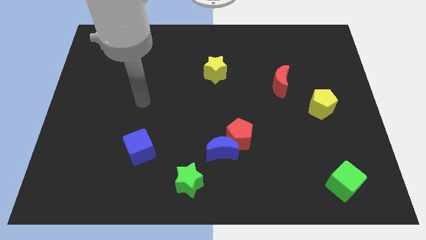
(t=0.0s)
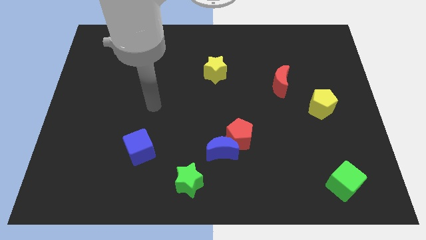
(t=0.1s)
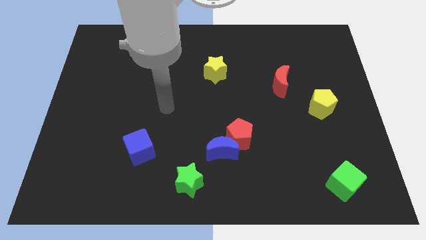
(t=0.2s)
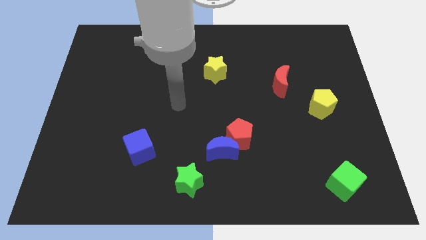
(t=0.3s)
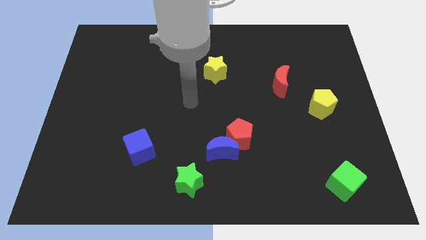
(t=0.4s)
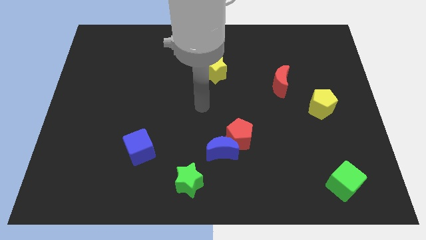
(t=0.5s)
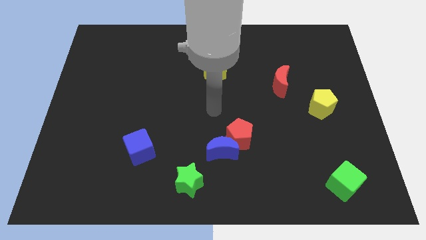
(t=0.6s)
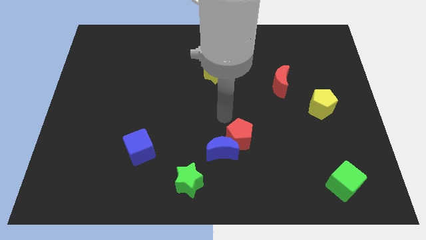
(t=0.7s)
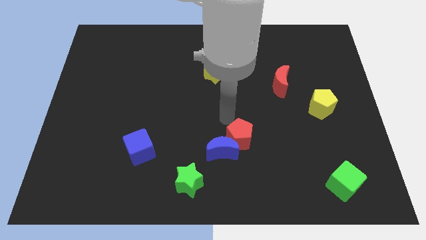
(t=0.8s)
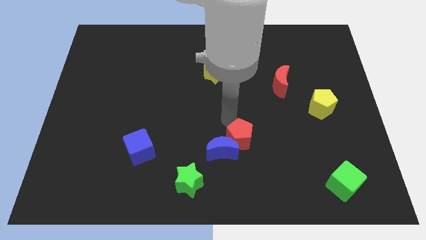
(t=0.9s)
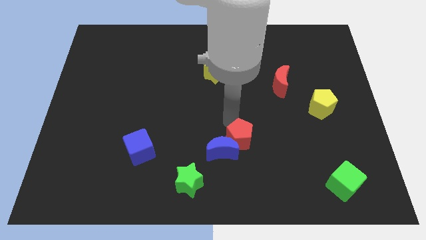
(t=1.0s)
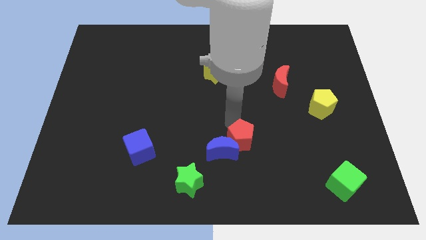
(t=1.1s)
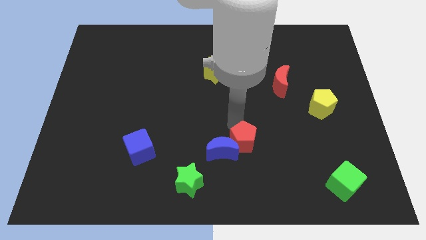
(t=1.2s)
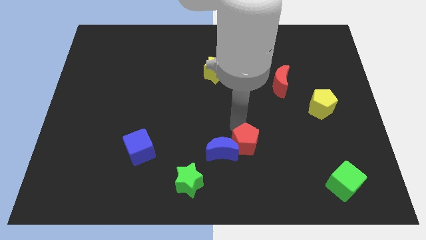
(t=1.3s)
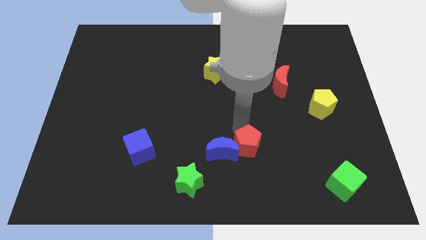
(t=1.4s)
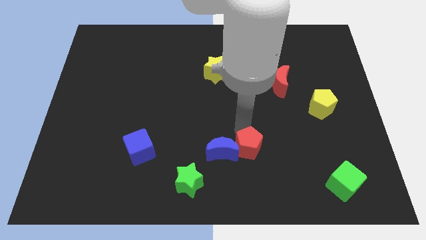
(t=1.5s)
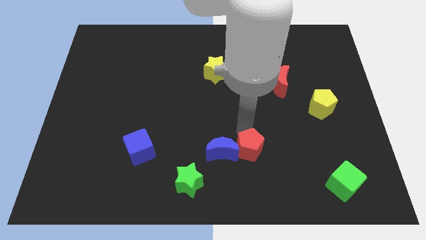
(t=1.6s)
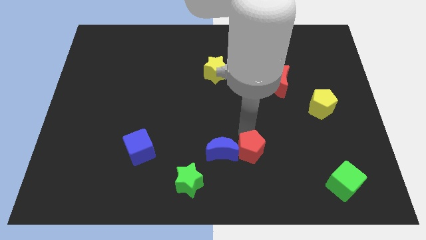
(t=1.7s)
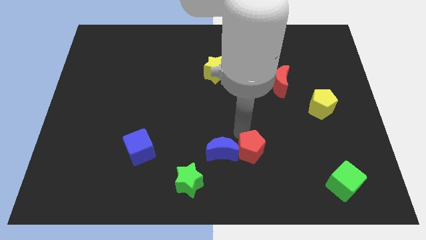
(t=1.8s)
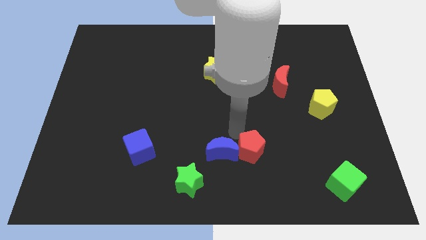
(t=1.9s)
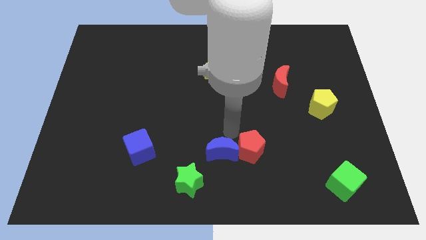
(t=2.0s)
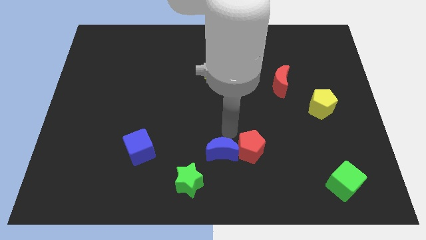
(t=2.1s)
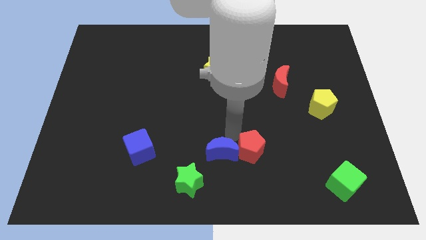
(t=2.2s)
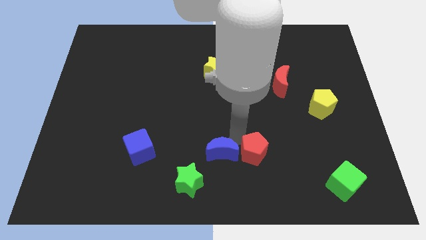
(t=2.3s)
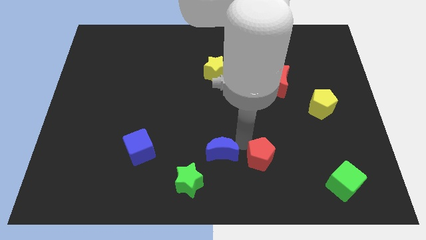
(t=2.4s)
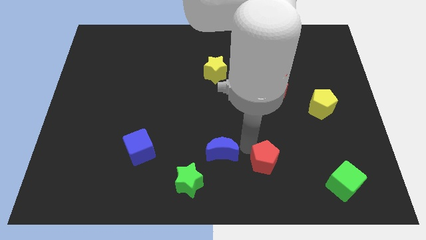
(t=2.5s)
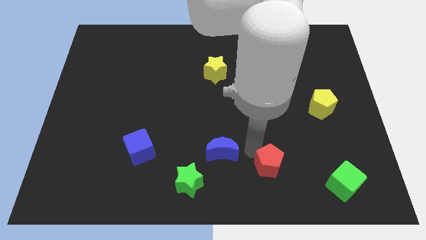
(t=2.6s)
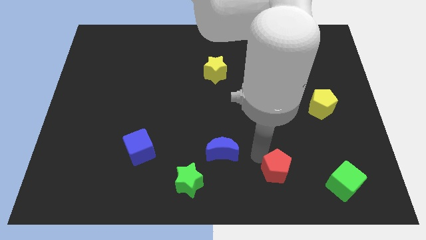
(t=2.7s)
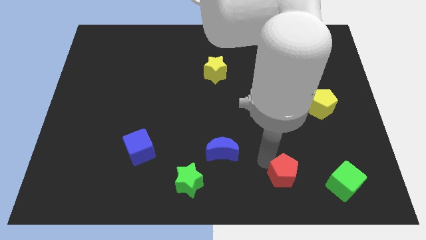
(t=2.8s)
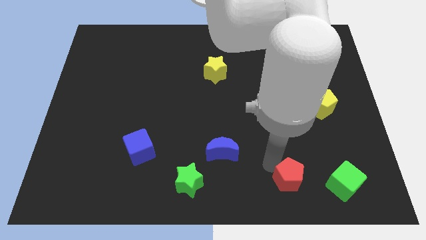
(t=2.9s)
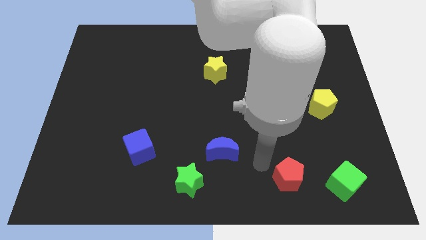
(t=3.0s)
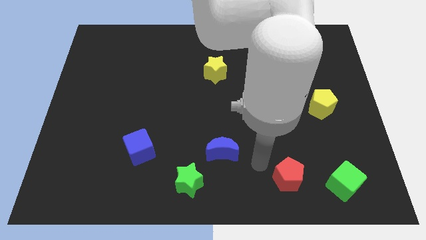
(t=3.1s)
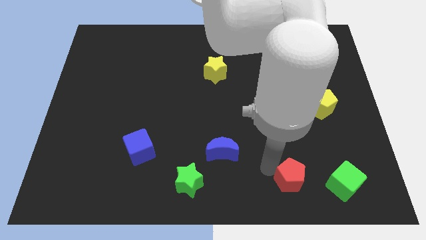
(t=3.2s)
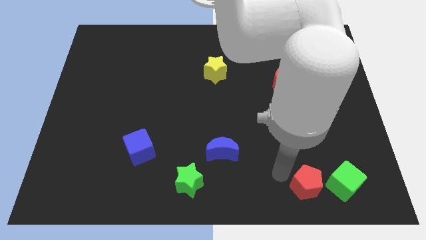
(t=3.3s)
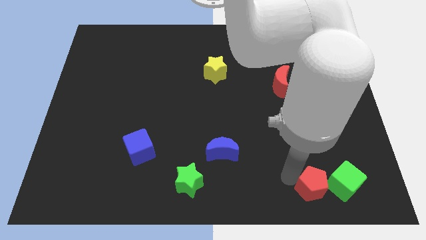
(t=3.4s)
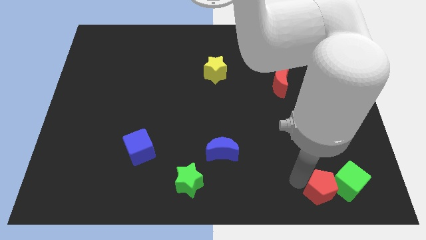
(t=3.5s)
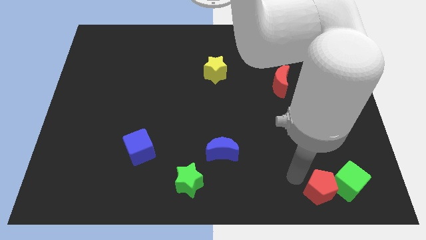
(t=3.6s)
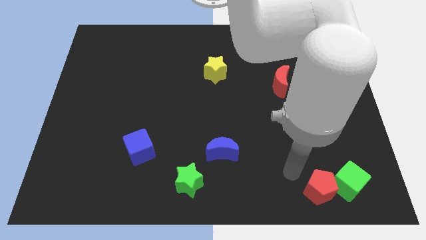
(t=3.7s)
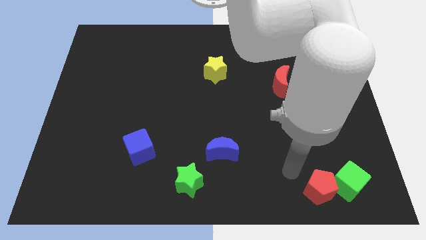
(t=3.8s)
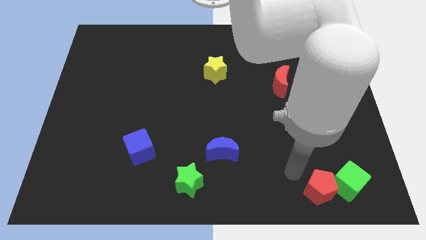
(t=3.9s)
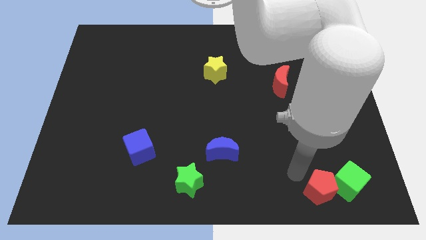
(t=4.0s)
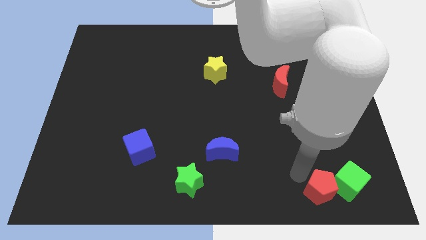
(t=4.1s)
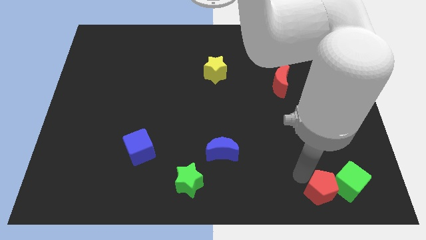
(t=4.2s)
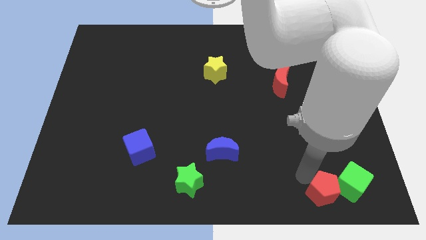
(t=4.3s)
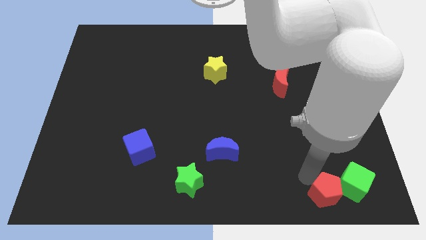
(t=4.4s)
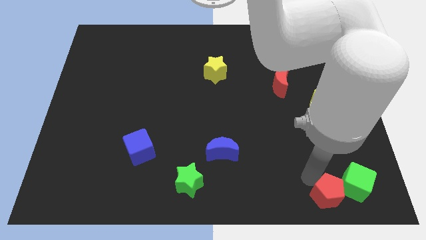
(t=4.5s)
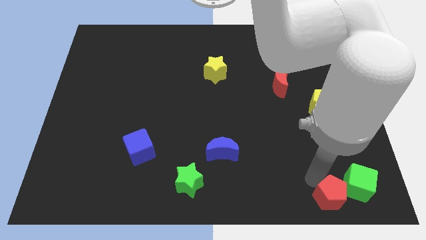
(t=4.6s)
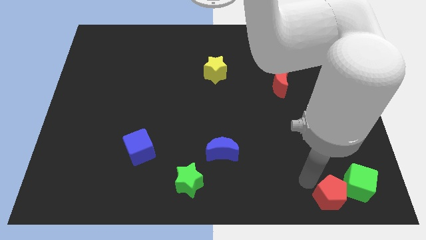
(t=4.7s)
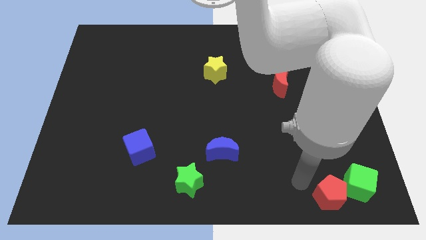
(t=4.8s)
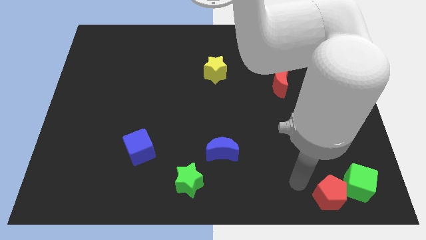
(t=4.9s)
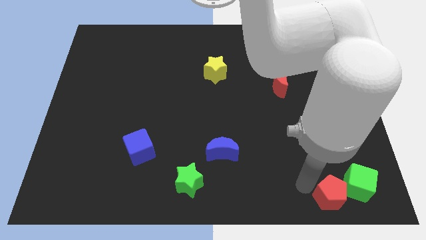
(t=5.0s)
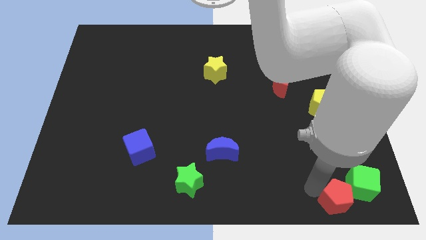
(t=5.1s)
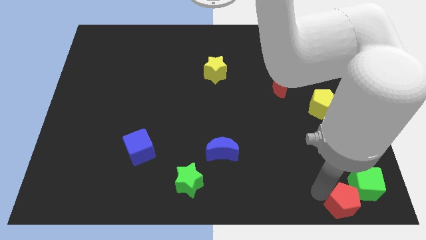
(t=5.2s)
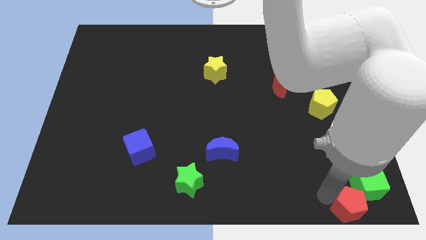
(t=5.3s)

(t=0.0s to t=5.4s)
move the red pentagon to the lower right corner

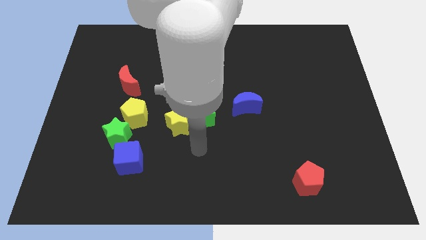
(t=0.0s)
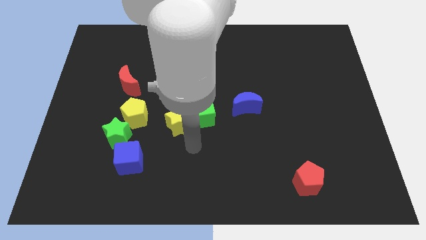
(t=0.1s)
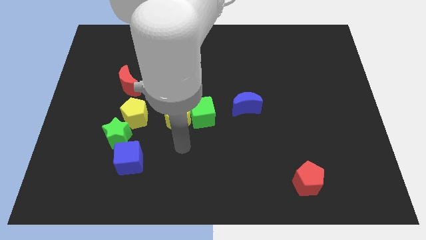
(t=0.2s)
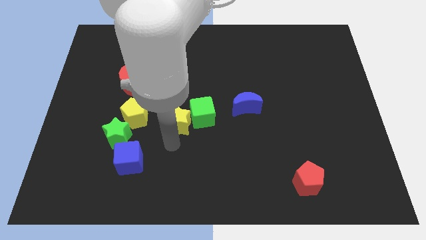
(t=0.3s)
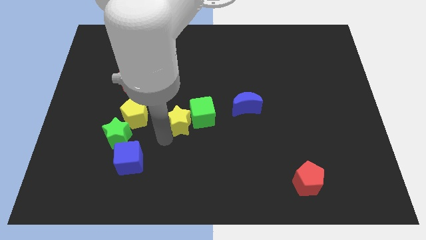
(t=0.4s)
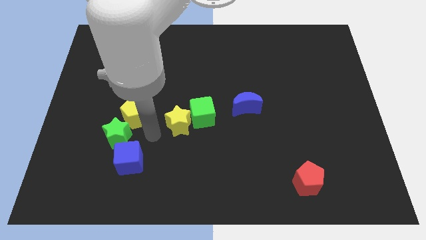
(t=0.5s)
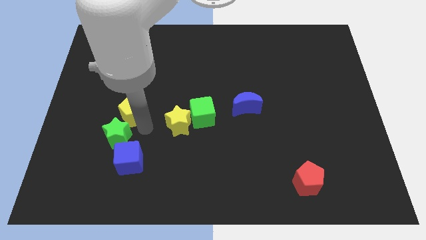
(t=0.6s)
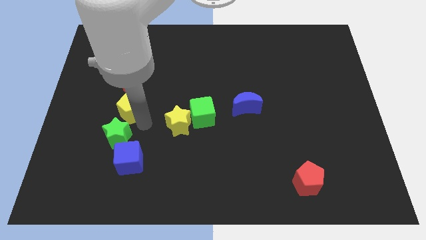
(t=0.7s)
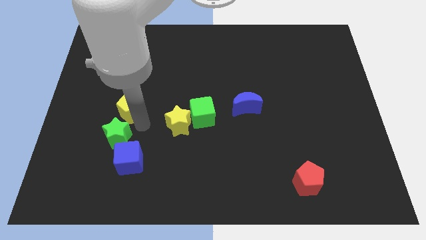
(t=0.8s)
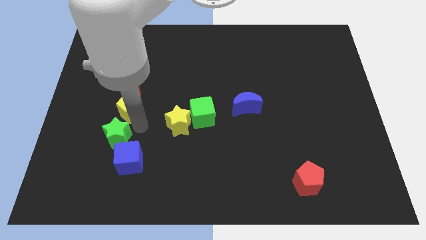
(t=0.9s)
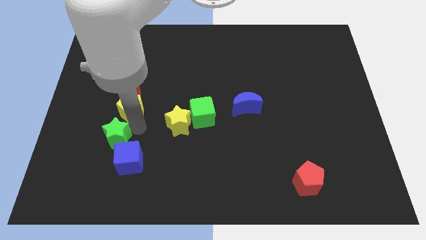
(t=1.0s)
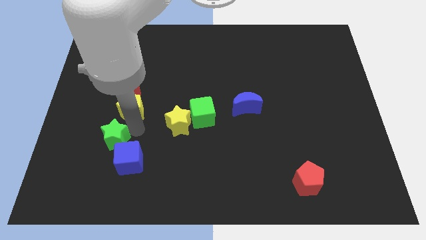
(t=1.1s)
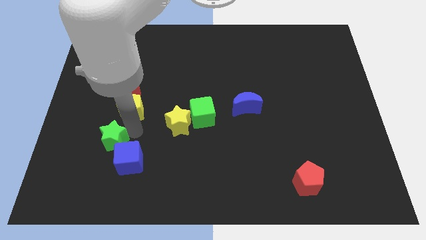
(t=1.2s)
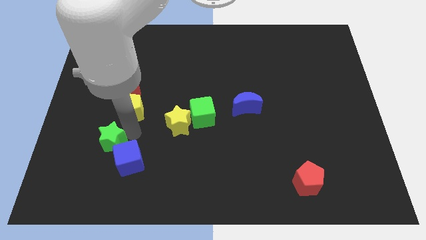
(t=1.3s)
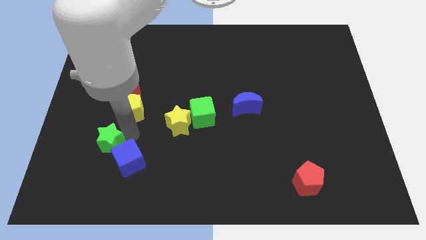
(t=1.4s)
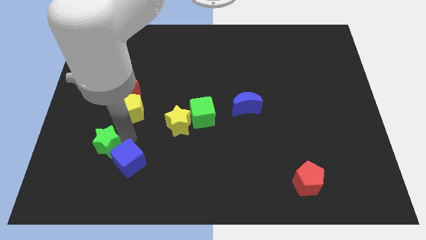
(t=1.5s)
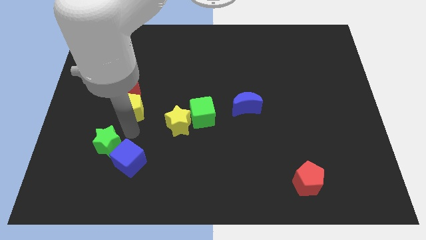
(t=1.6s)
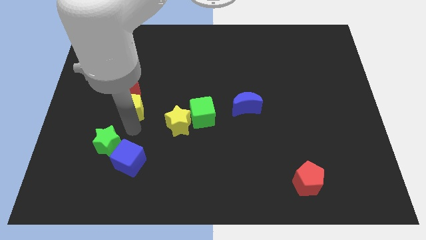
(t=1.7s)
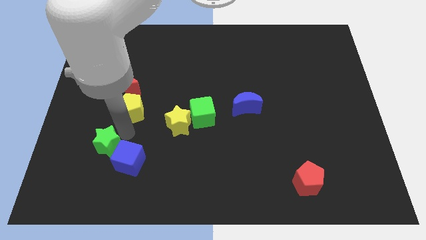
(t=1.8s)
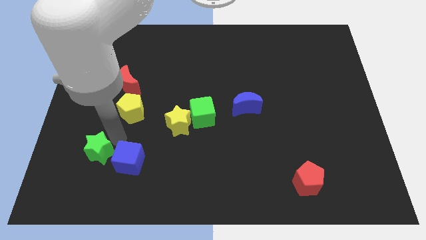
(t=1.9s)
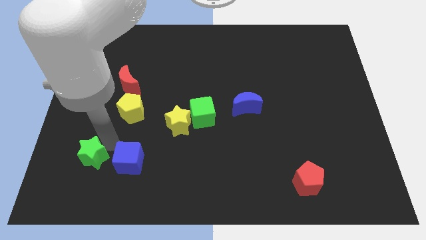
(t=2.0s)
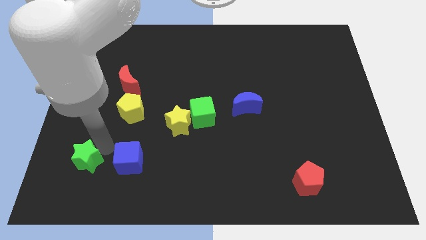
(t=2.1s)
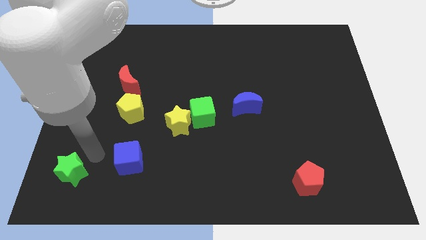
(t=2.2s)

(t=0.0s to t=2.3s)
push the green star to the bottom left of the board
